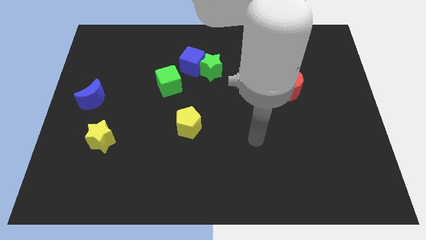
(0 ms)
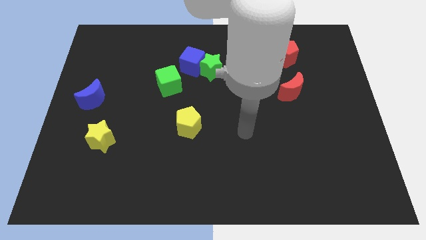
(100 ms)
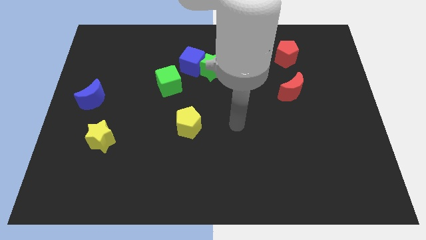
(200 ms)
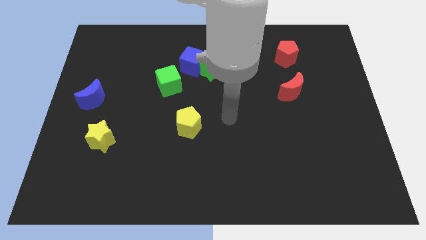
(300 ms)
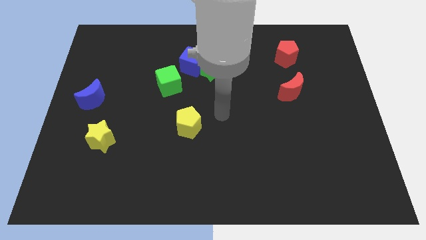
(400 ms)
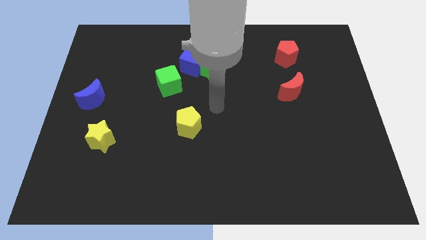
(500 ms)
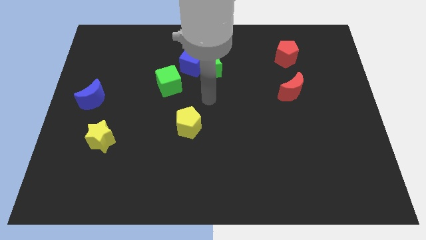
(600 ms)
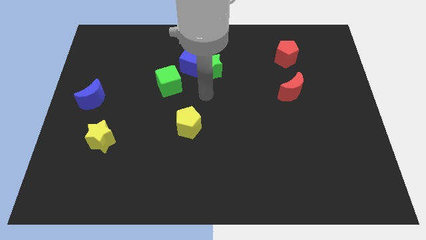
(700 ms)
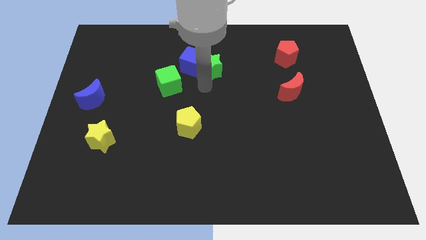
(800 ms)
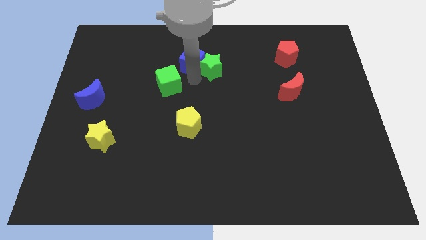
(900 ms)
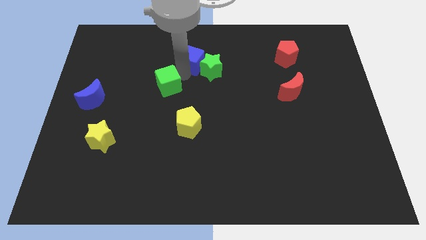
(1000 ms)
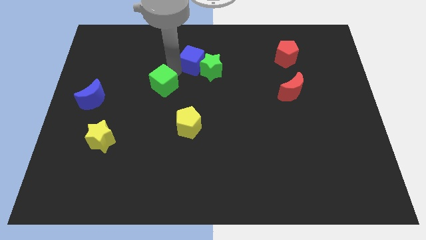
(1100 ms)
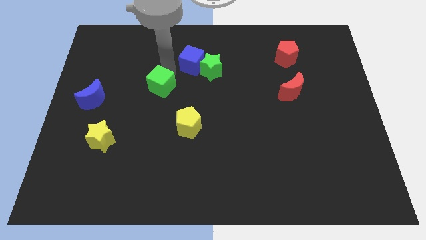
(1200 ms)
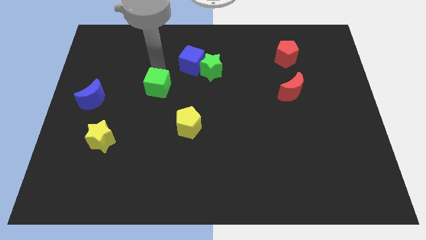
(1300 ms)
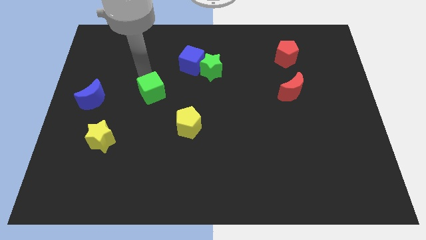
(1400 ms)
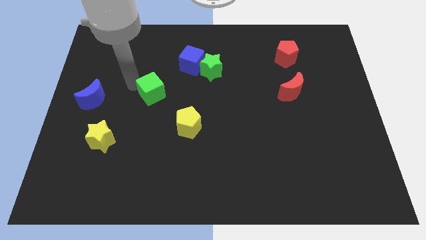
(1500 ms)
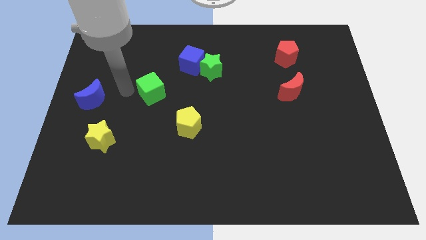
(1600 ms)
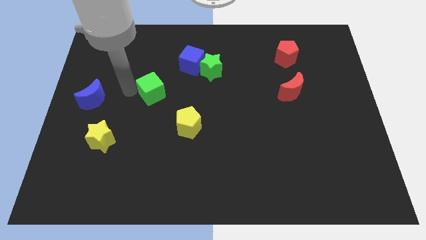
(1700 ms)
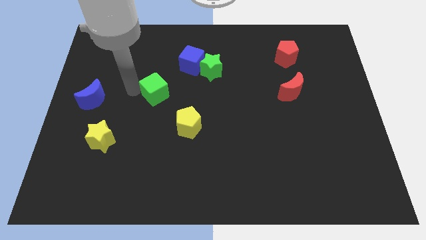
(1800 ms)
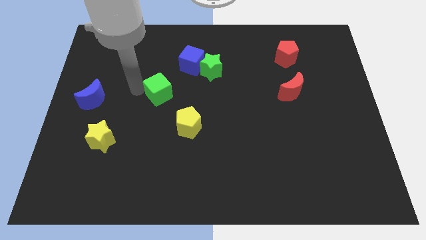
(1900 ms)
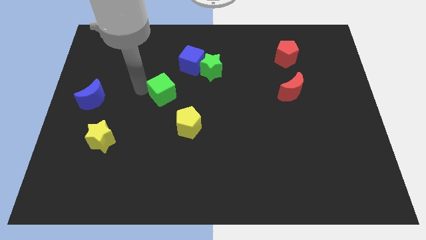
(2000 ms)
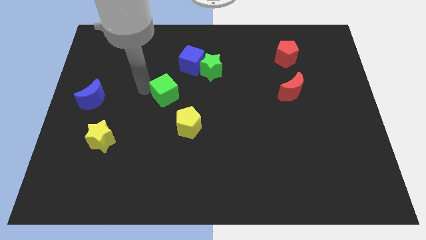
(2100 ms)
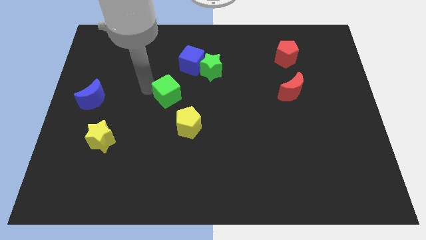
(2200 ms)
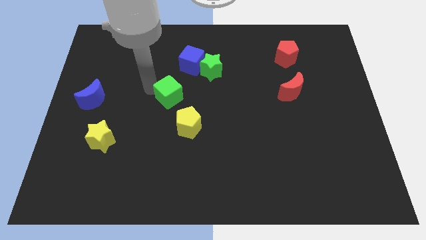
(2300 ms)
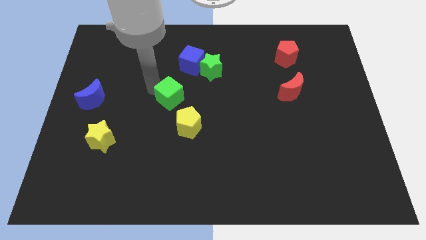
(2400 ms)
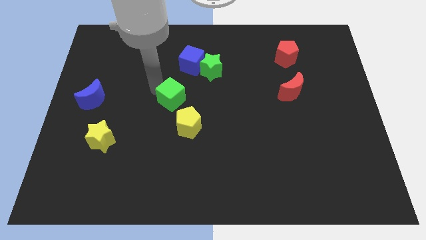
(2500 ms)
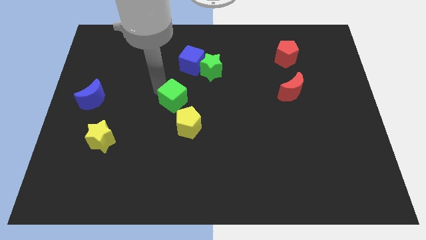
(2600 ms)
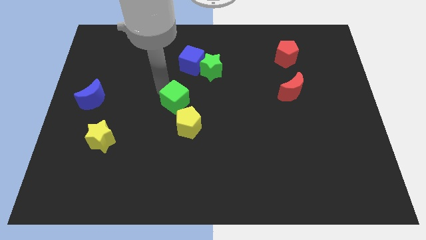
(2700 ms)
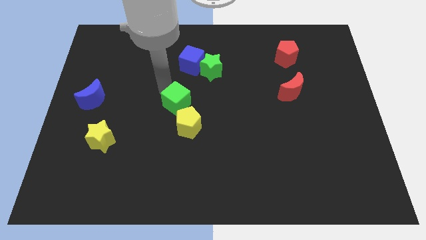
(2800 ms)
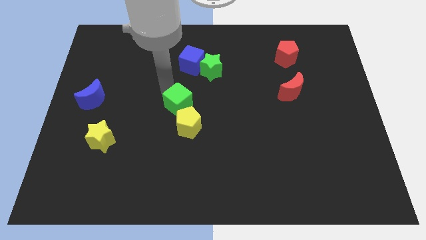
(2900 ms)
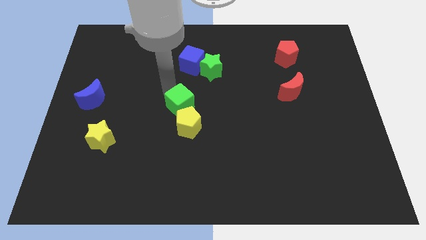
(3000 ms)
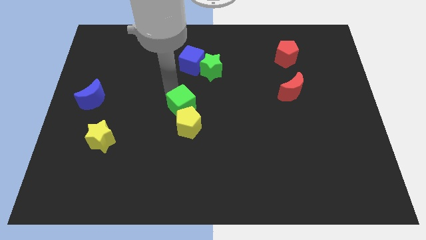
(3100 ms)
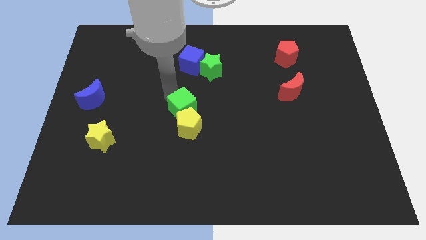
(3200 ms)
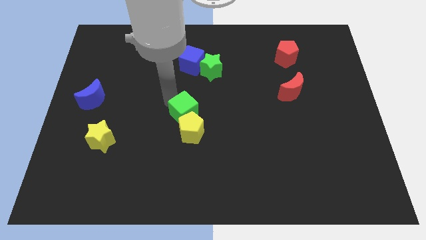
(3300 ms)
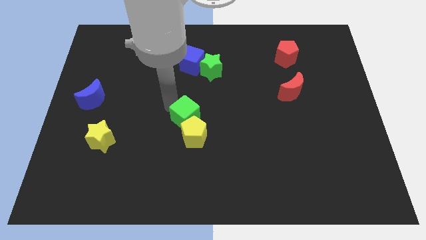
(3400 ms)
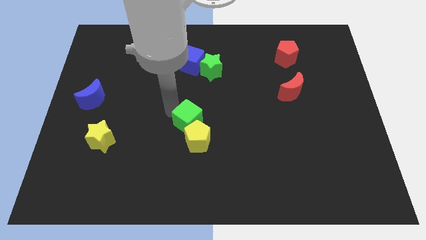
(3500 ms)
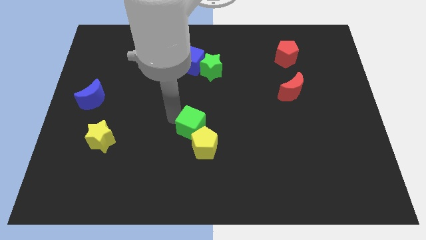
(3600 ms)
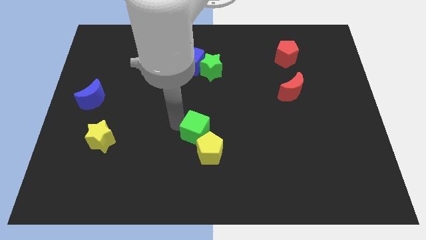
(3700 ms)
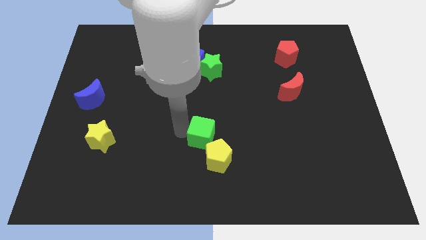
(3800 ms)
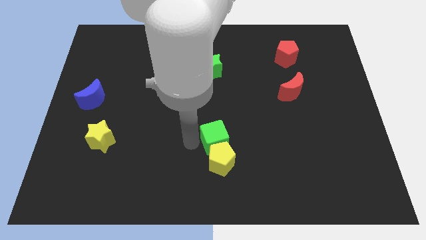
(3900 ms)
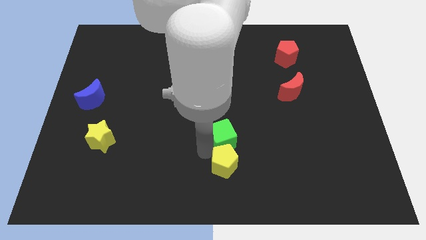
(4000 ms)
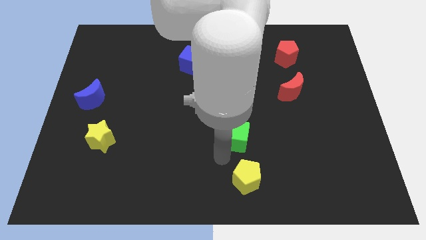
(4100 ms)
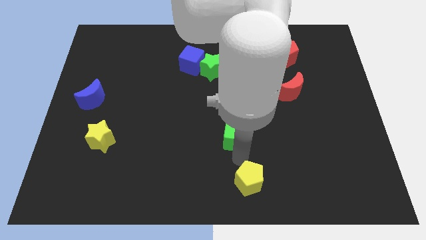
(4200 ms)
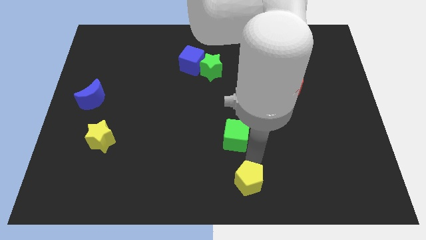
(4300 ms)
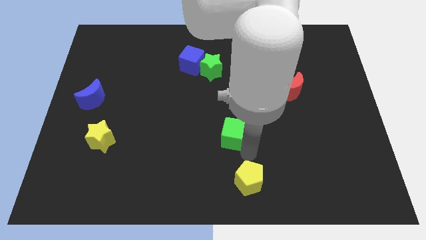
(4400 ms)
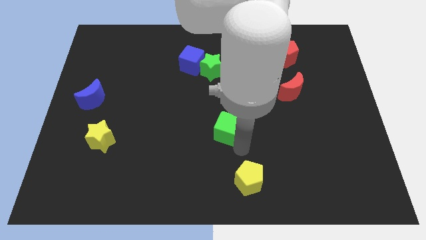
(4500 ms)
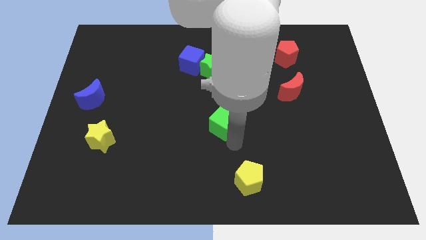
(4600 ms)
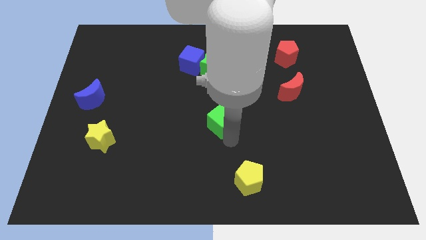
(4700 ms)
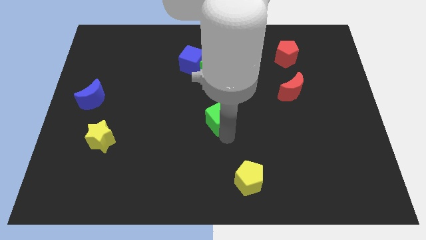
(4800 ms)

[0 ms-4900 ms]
move the green cube to the bottom of the green star

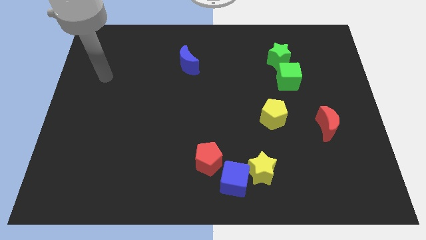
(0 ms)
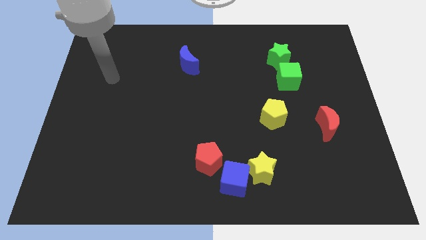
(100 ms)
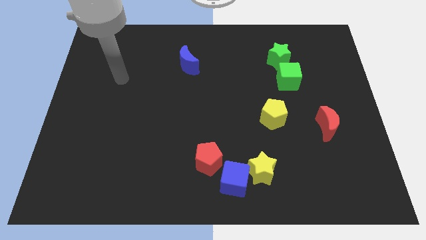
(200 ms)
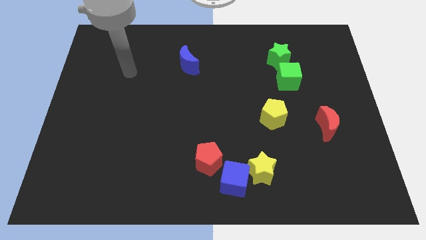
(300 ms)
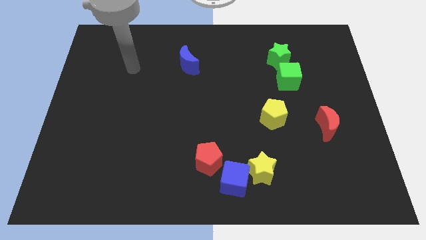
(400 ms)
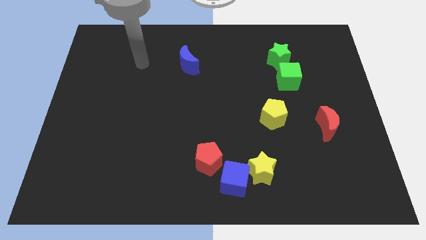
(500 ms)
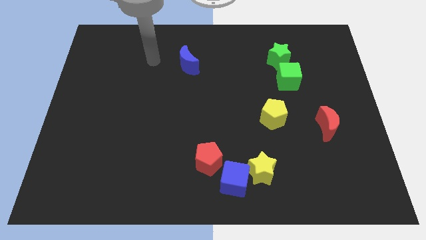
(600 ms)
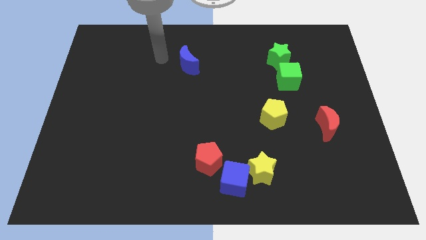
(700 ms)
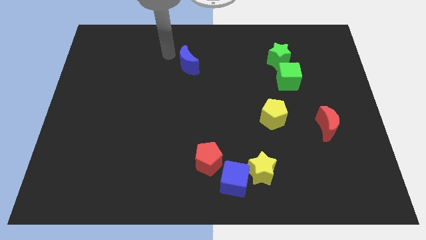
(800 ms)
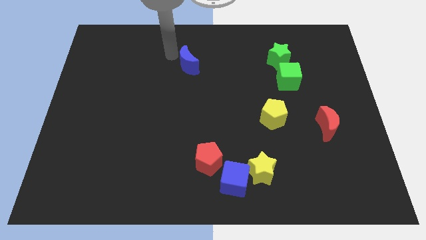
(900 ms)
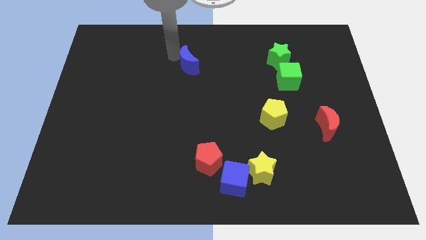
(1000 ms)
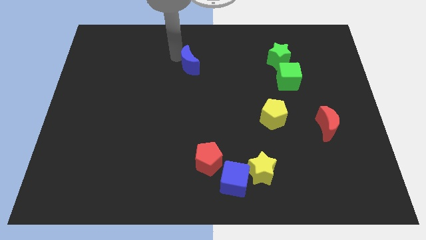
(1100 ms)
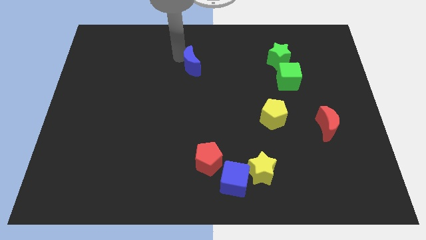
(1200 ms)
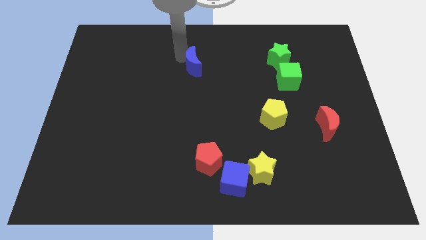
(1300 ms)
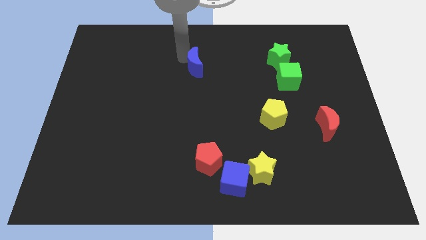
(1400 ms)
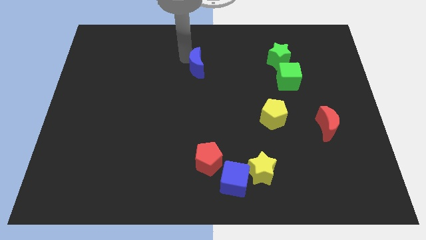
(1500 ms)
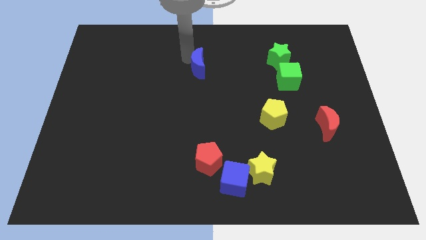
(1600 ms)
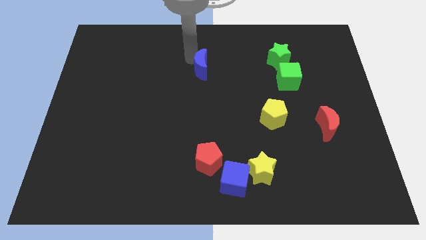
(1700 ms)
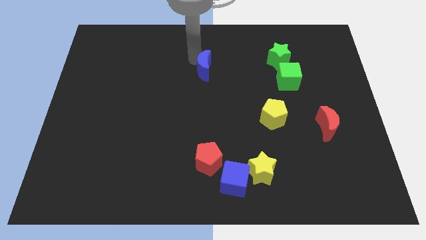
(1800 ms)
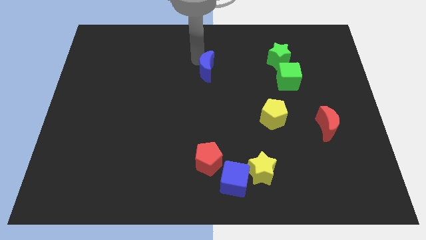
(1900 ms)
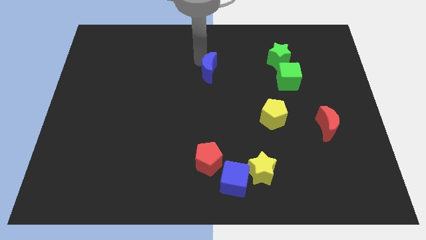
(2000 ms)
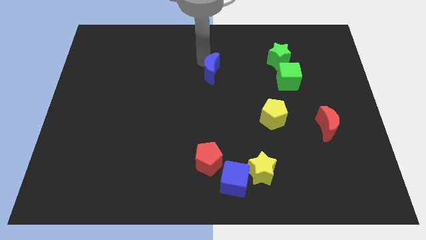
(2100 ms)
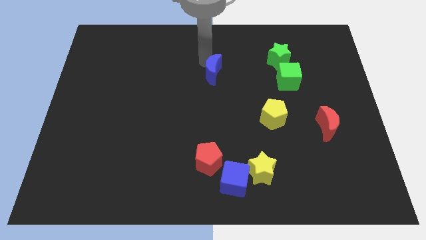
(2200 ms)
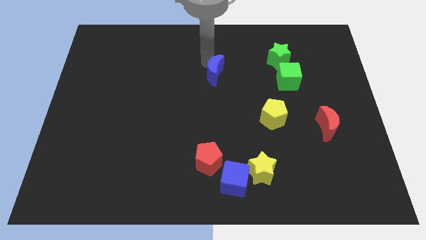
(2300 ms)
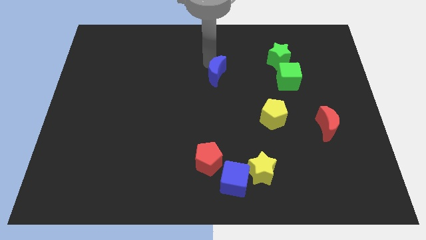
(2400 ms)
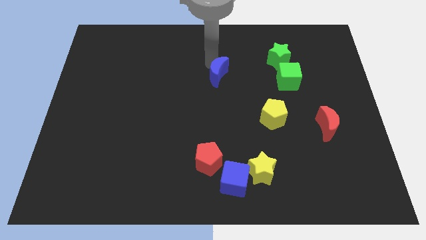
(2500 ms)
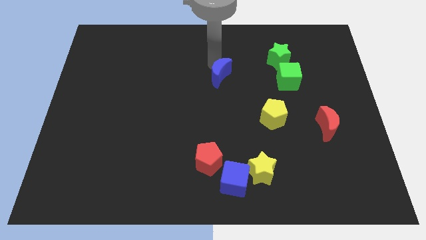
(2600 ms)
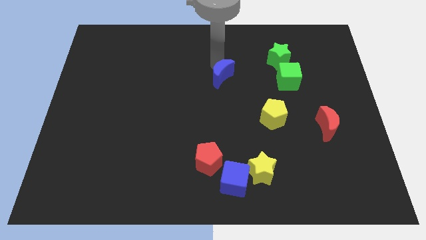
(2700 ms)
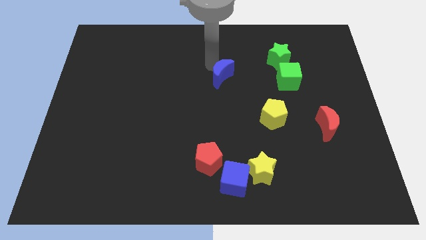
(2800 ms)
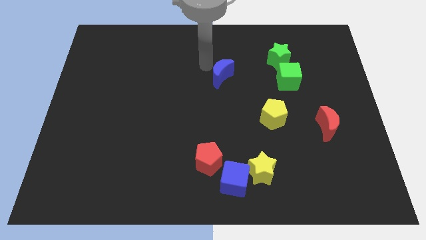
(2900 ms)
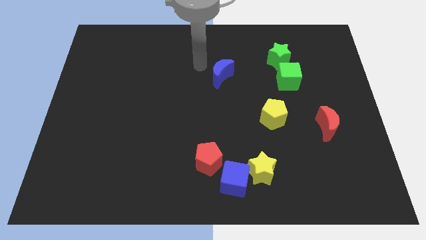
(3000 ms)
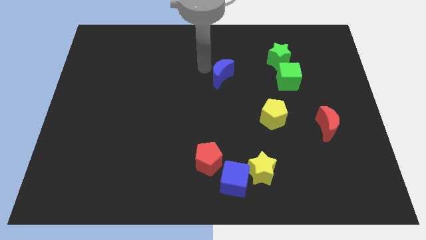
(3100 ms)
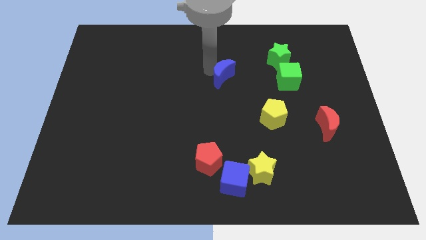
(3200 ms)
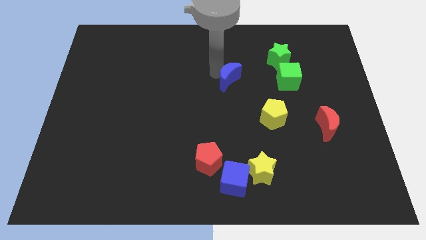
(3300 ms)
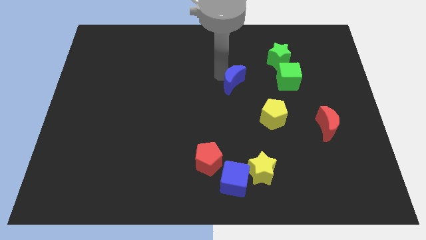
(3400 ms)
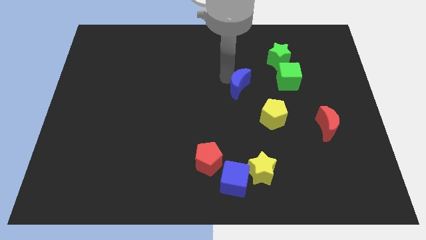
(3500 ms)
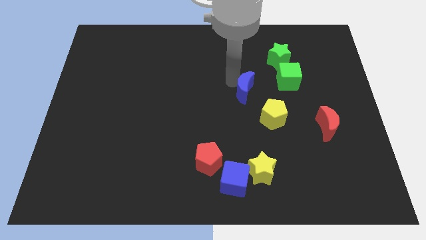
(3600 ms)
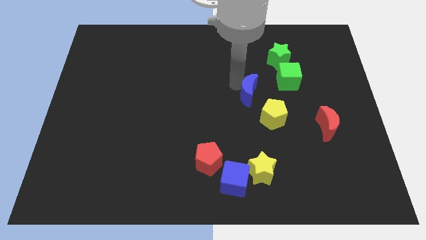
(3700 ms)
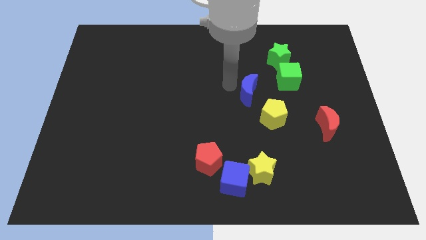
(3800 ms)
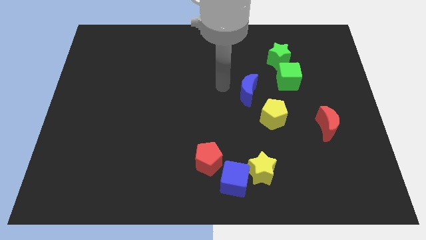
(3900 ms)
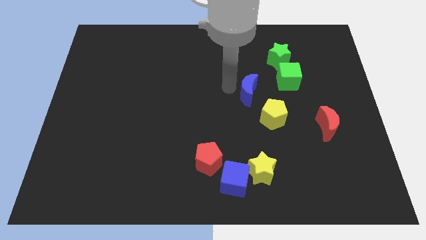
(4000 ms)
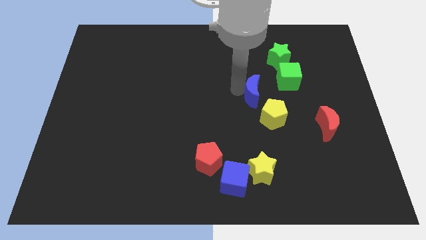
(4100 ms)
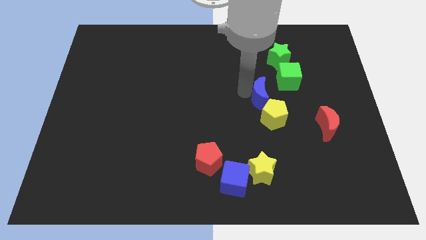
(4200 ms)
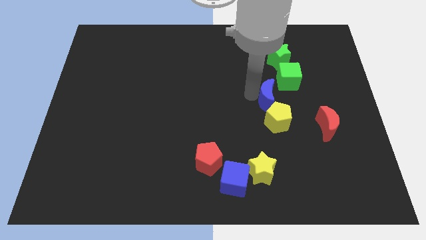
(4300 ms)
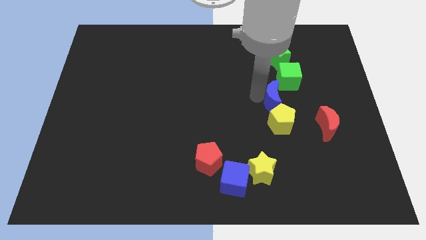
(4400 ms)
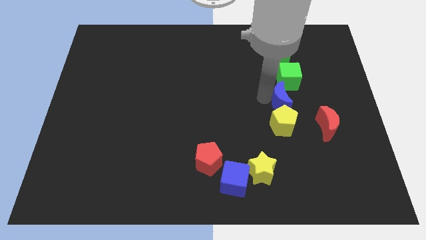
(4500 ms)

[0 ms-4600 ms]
move the blue moon diagonally up and to the left of the red moon
